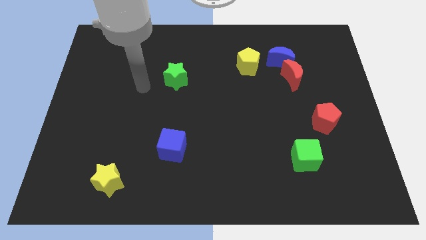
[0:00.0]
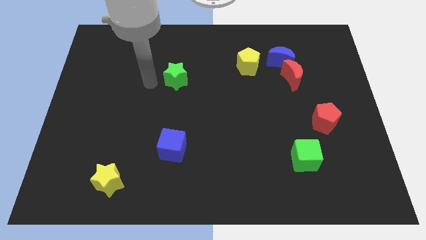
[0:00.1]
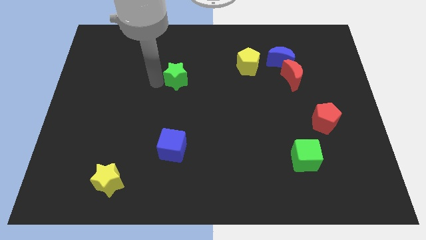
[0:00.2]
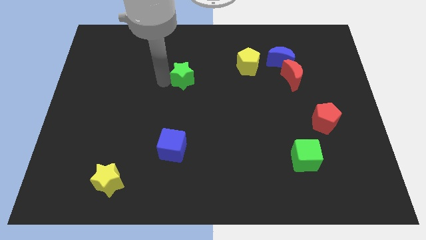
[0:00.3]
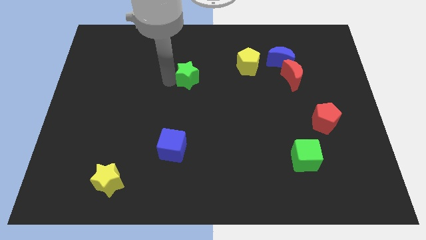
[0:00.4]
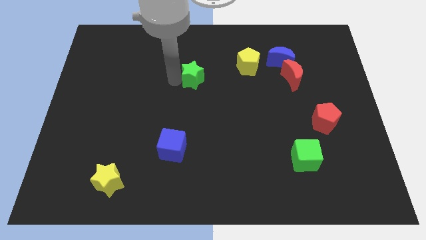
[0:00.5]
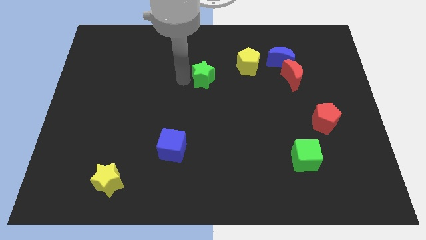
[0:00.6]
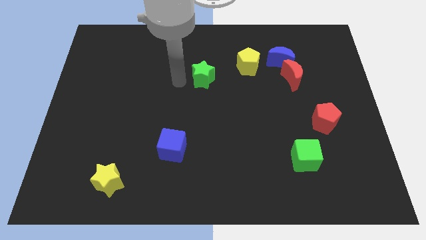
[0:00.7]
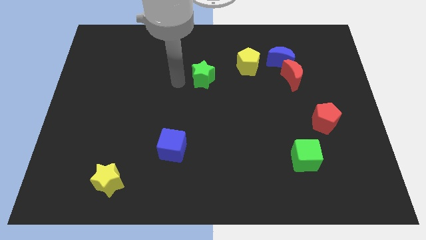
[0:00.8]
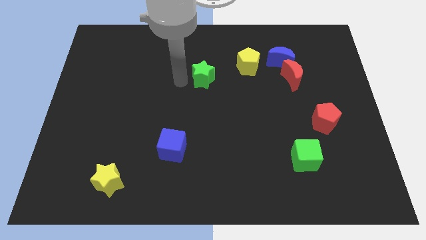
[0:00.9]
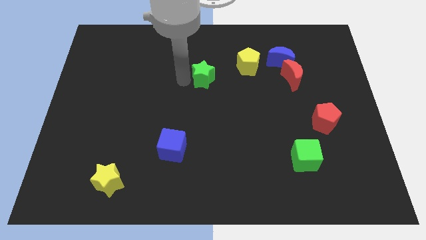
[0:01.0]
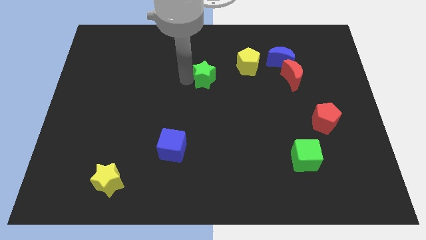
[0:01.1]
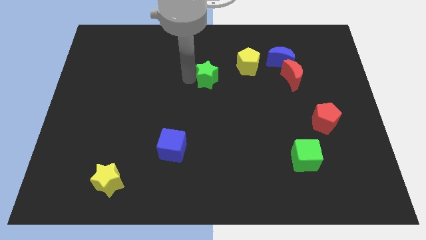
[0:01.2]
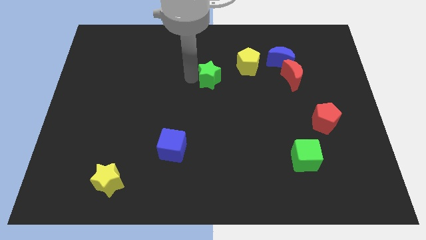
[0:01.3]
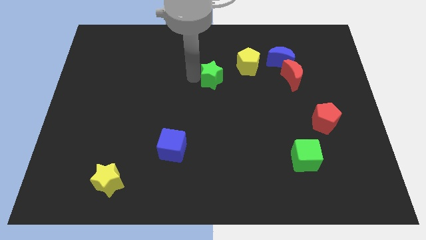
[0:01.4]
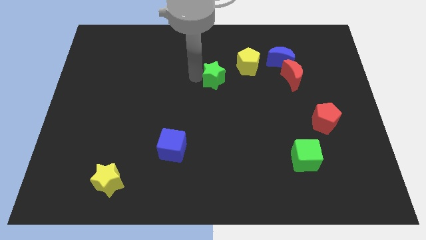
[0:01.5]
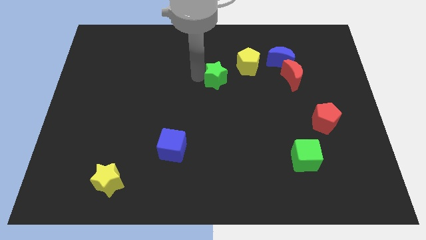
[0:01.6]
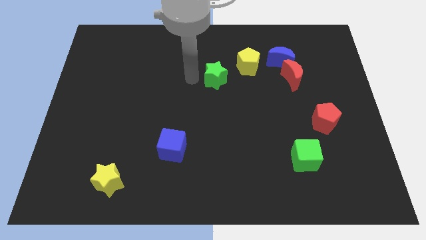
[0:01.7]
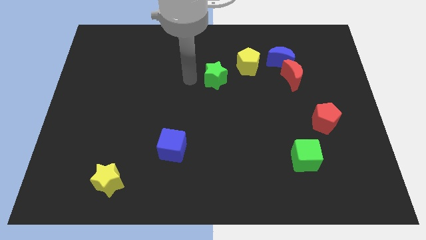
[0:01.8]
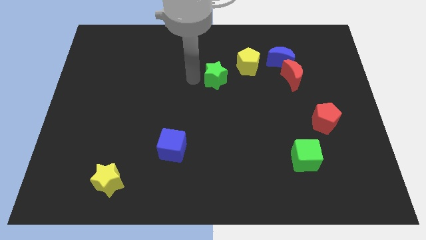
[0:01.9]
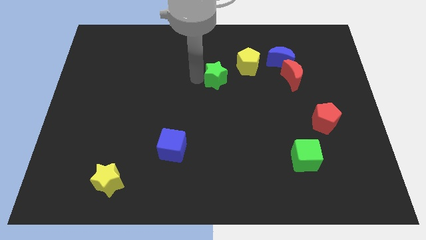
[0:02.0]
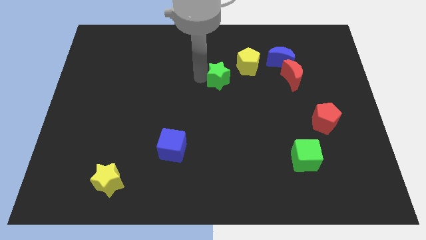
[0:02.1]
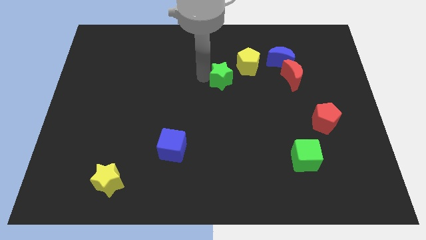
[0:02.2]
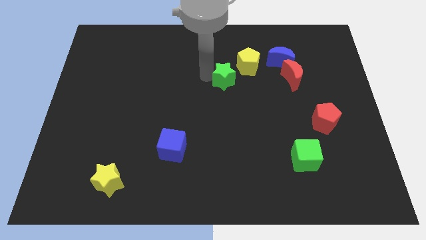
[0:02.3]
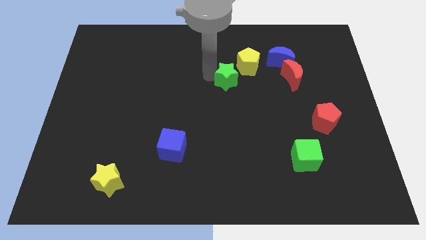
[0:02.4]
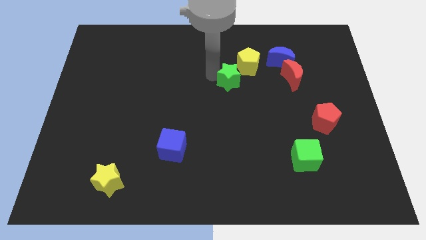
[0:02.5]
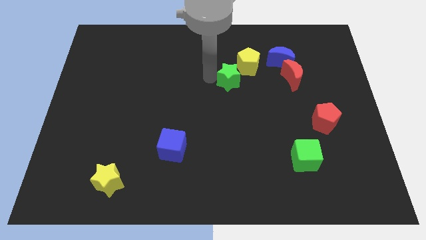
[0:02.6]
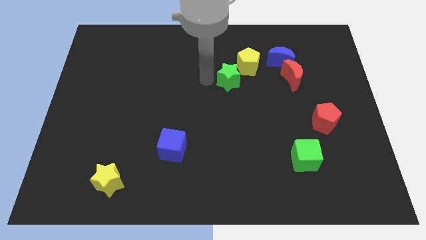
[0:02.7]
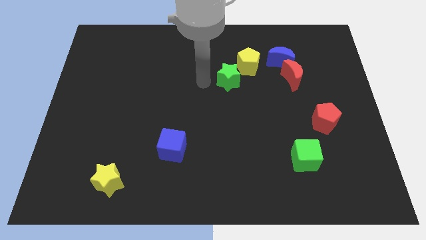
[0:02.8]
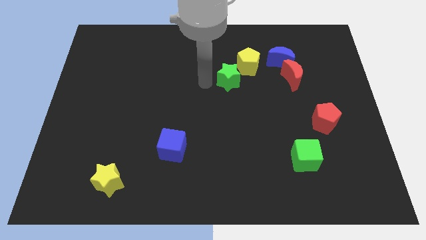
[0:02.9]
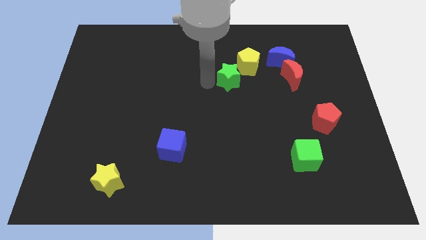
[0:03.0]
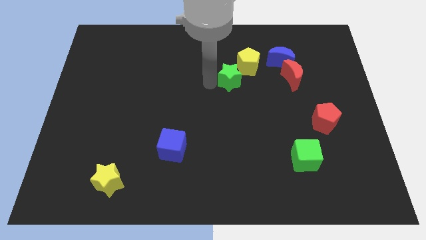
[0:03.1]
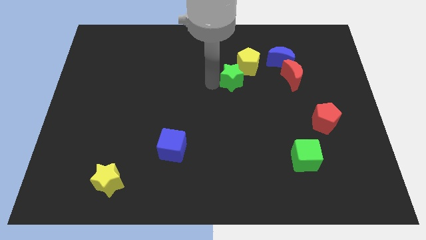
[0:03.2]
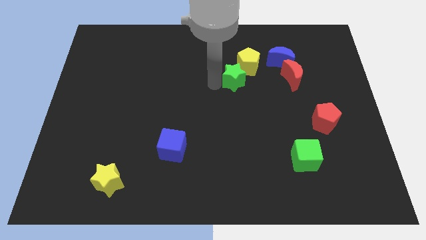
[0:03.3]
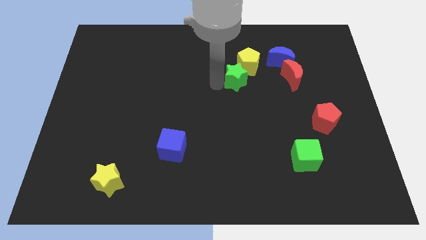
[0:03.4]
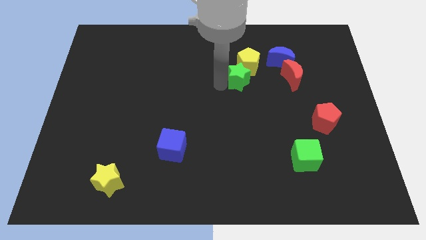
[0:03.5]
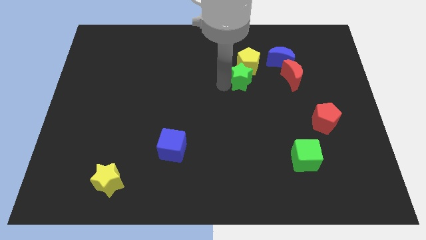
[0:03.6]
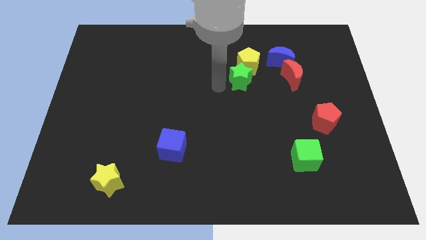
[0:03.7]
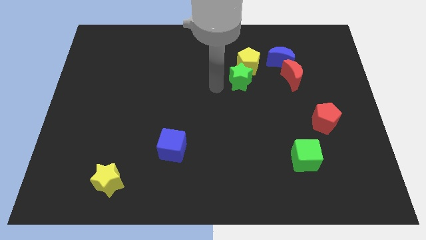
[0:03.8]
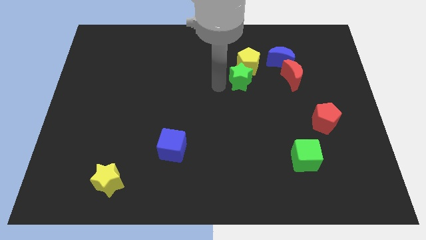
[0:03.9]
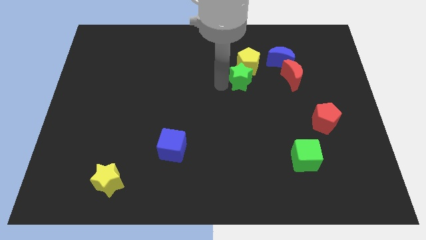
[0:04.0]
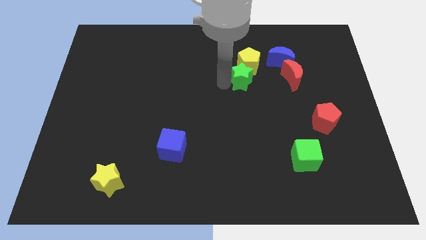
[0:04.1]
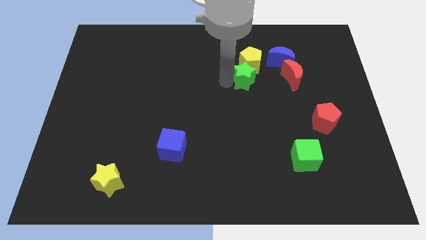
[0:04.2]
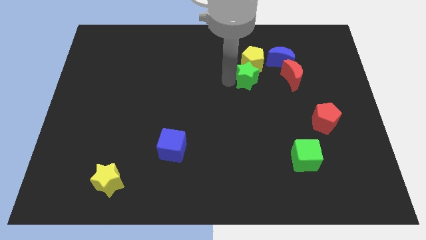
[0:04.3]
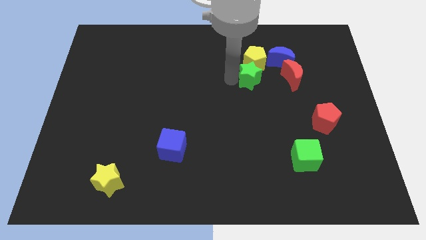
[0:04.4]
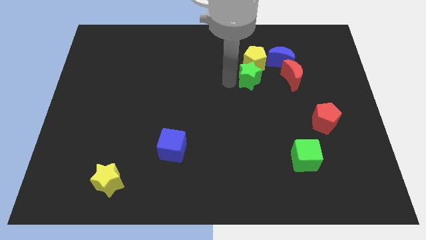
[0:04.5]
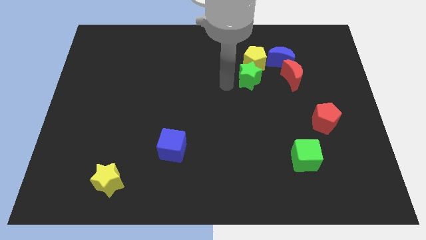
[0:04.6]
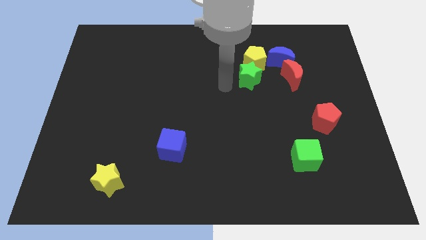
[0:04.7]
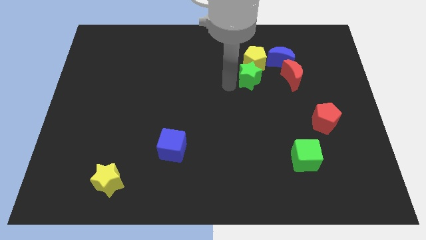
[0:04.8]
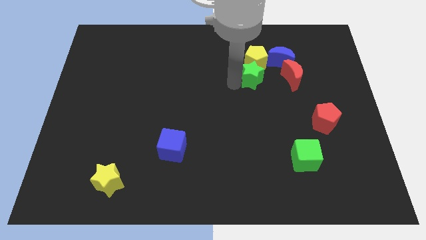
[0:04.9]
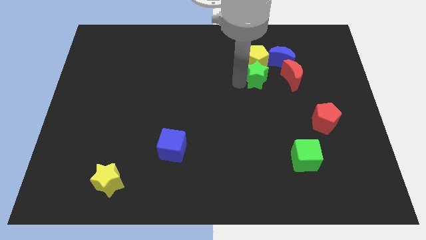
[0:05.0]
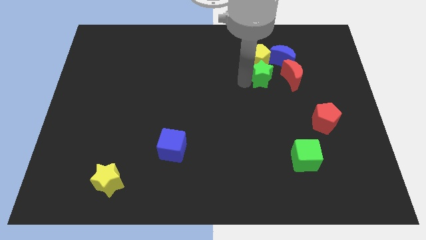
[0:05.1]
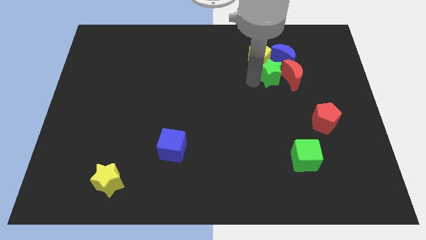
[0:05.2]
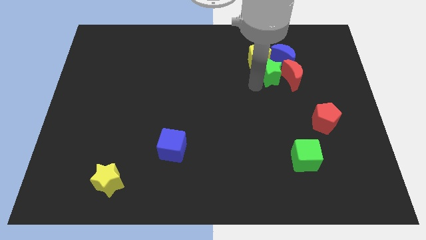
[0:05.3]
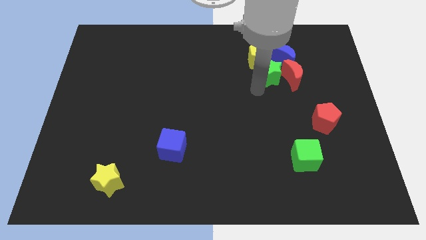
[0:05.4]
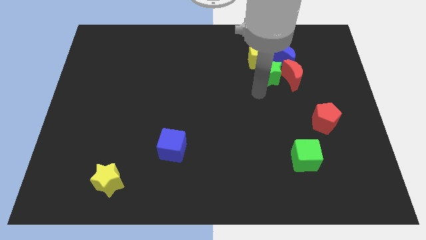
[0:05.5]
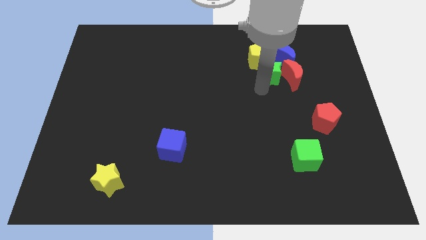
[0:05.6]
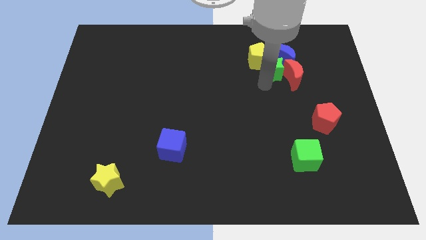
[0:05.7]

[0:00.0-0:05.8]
put the green star next to the blue moon
